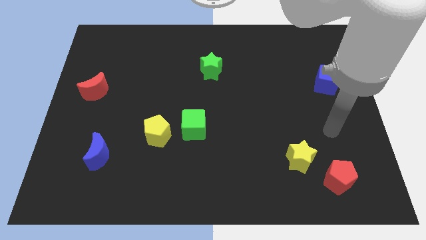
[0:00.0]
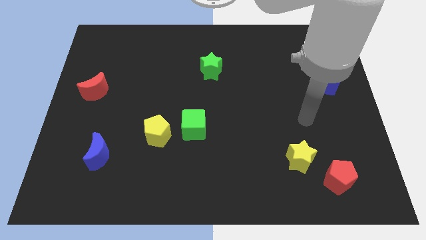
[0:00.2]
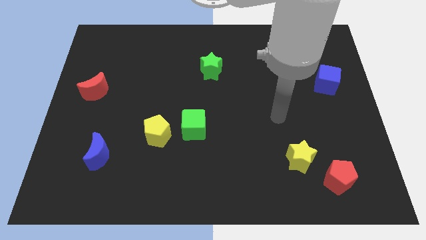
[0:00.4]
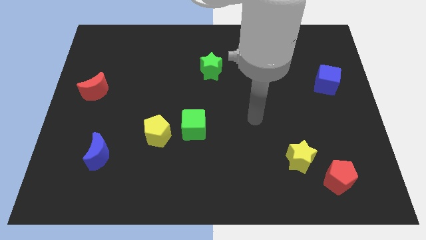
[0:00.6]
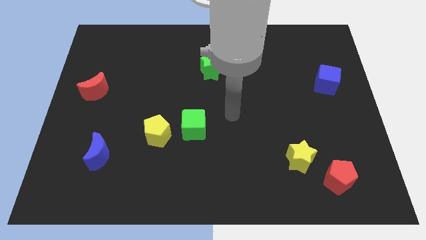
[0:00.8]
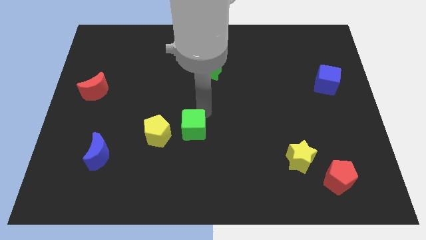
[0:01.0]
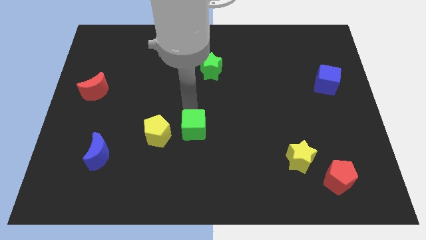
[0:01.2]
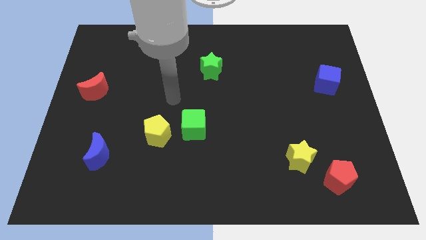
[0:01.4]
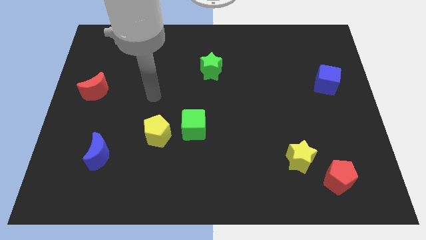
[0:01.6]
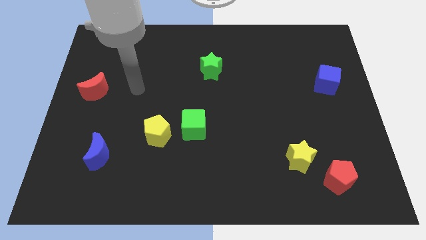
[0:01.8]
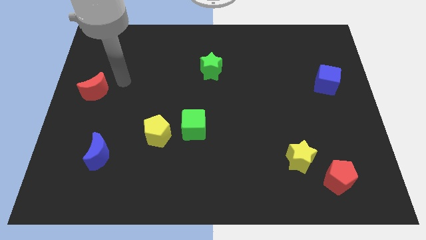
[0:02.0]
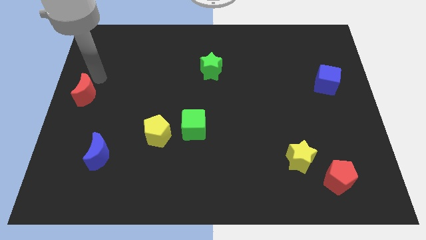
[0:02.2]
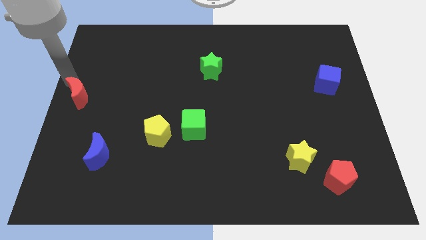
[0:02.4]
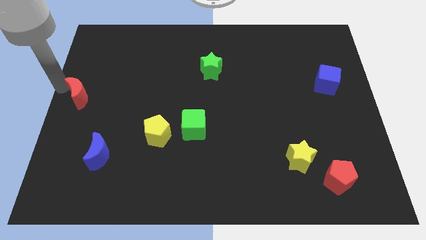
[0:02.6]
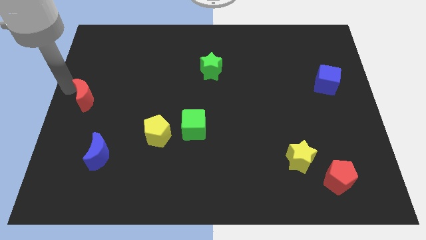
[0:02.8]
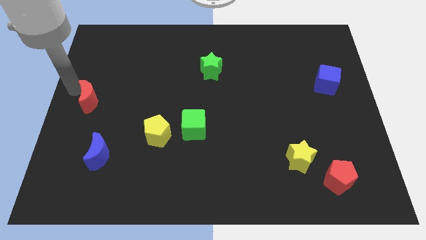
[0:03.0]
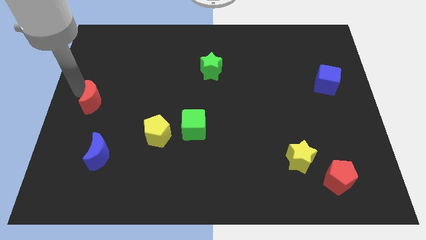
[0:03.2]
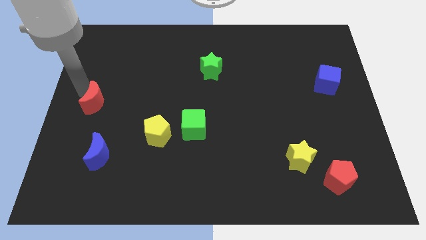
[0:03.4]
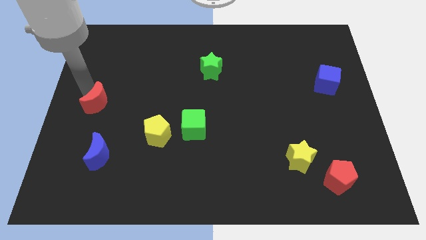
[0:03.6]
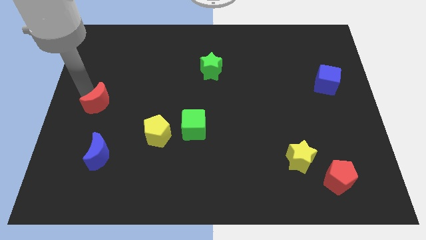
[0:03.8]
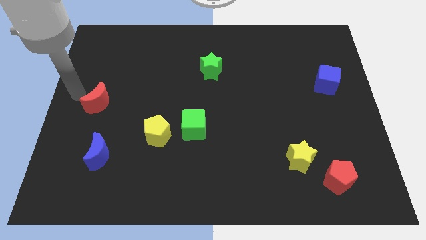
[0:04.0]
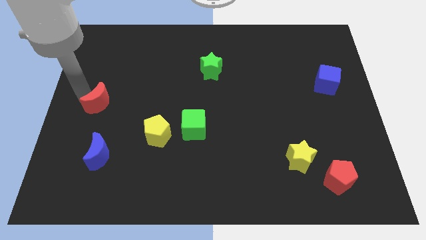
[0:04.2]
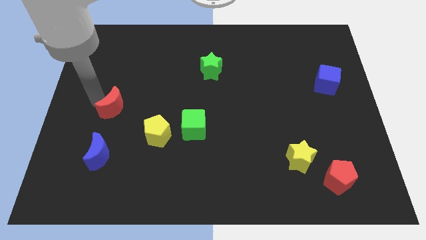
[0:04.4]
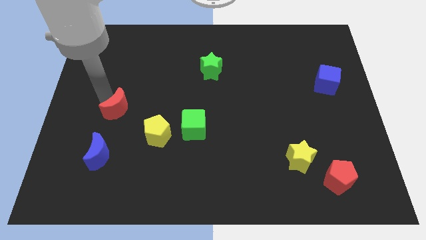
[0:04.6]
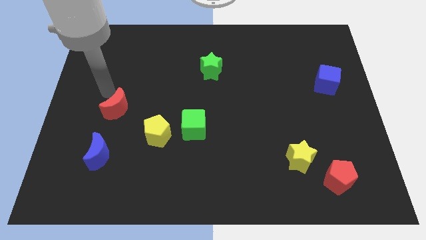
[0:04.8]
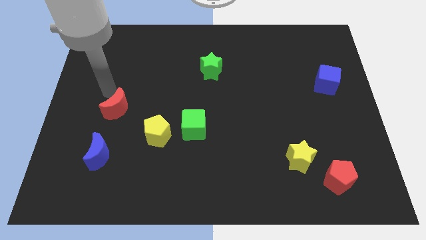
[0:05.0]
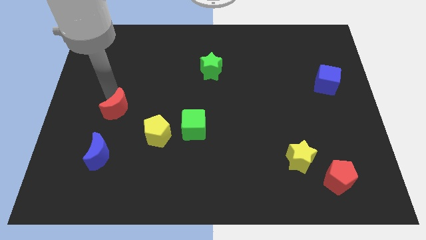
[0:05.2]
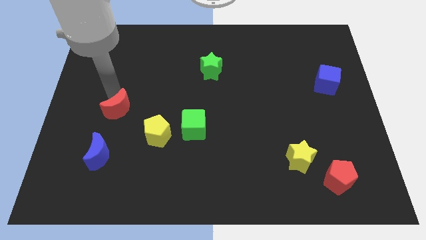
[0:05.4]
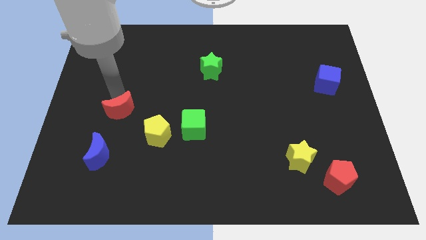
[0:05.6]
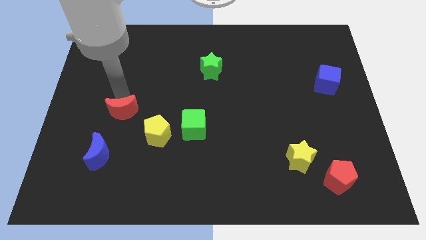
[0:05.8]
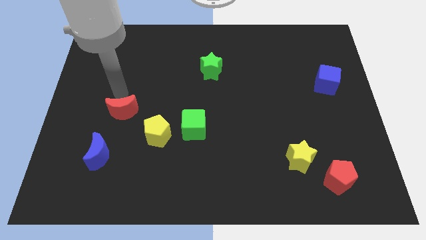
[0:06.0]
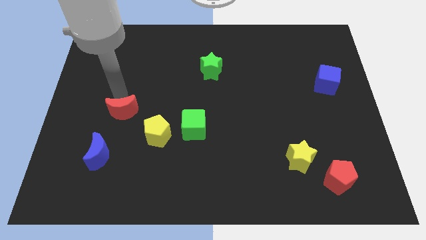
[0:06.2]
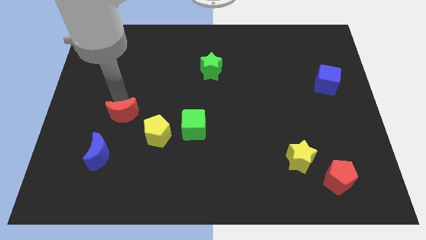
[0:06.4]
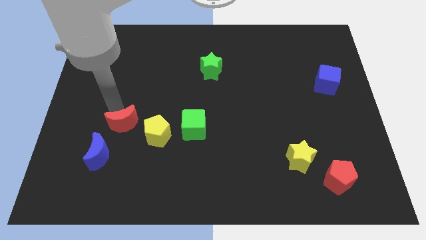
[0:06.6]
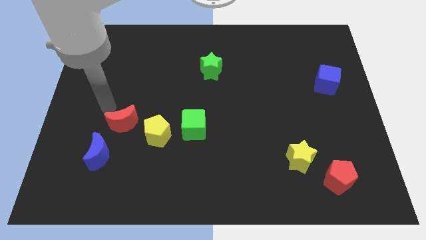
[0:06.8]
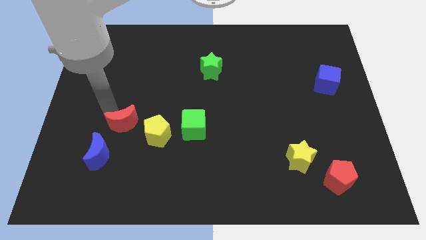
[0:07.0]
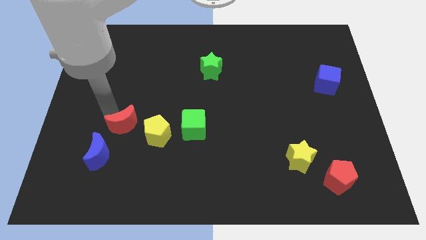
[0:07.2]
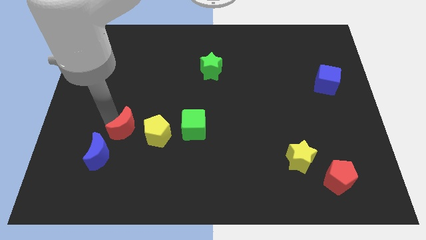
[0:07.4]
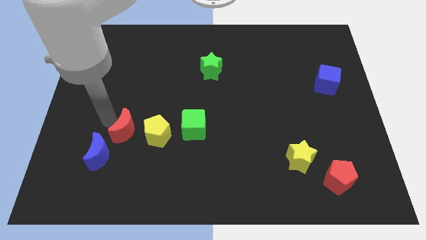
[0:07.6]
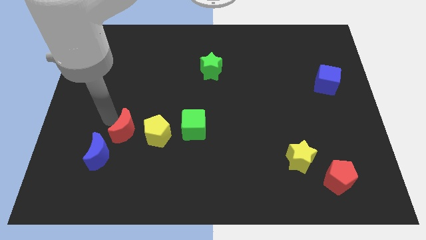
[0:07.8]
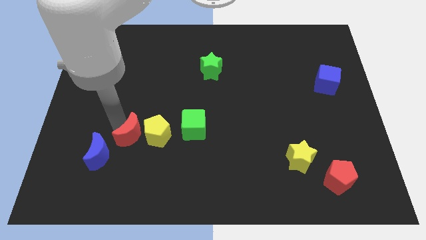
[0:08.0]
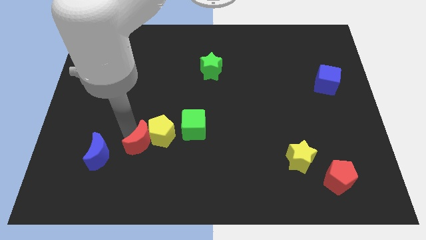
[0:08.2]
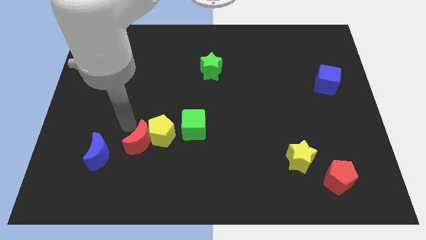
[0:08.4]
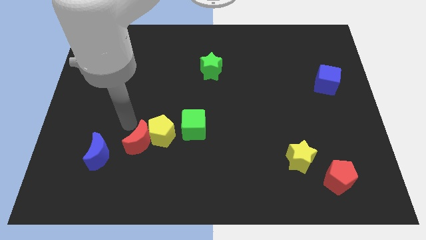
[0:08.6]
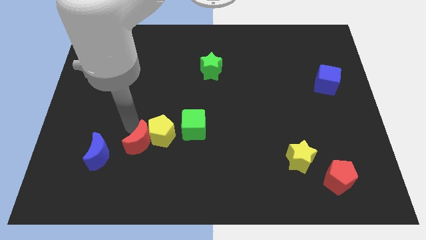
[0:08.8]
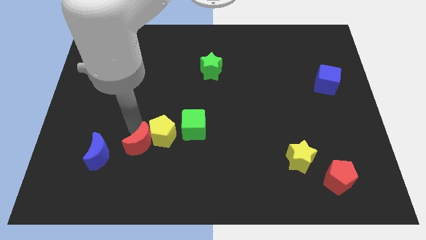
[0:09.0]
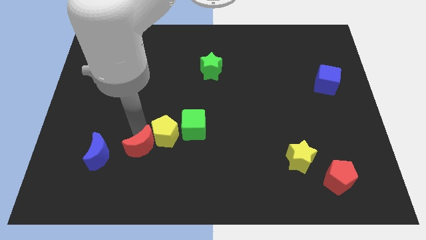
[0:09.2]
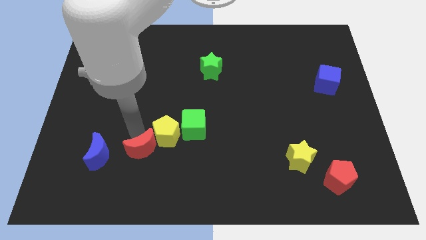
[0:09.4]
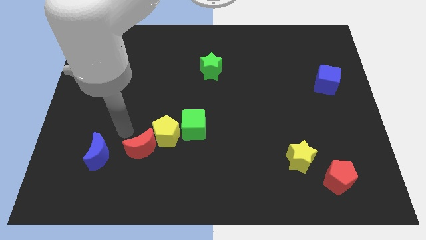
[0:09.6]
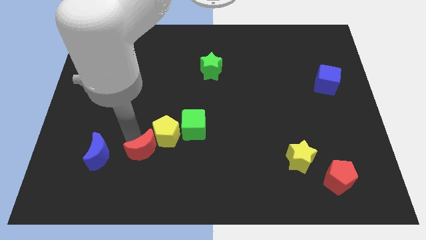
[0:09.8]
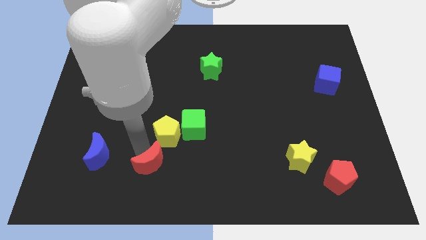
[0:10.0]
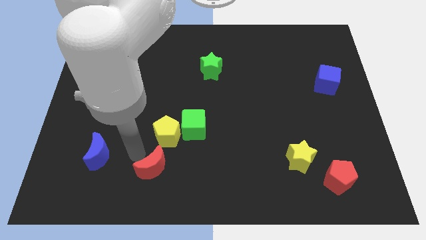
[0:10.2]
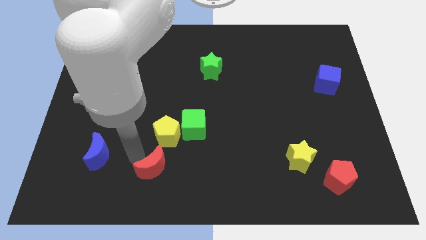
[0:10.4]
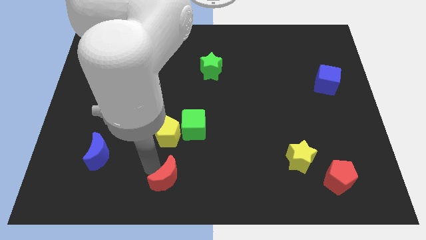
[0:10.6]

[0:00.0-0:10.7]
slide the red moon to the bottom side

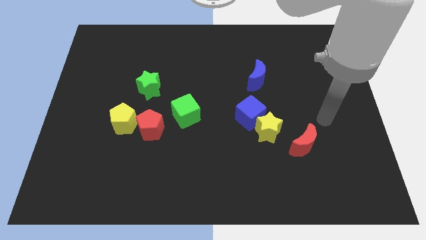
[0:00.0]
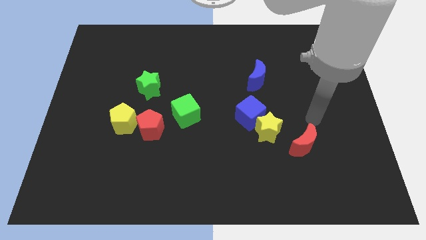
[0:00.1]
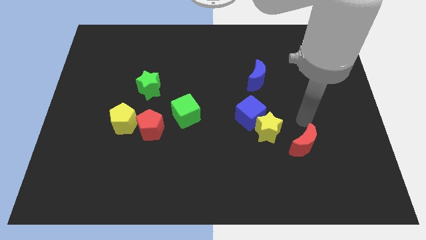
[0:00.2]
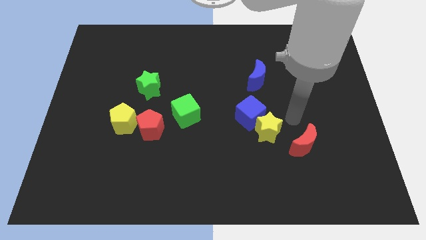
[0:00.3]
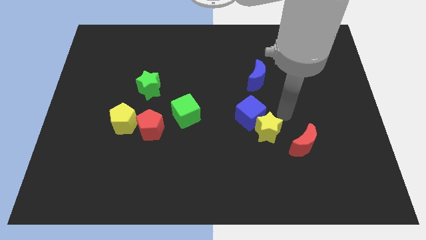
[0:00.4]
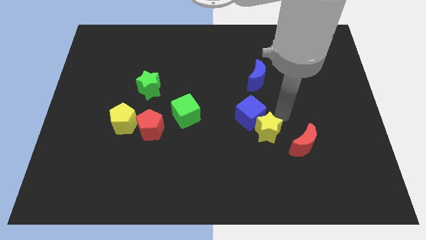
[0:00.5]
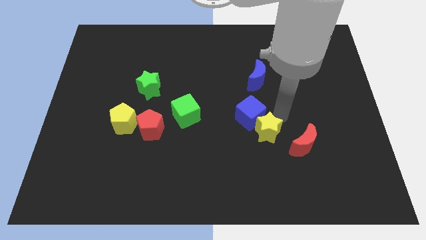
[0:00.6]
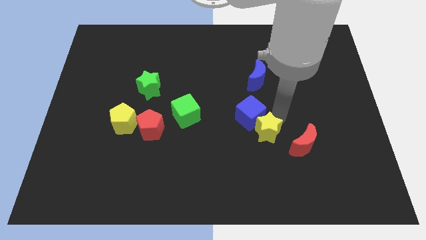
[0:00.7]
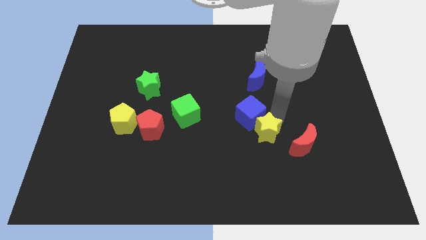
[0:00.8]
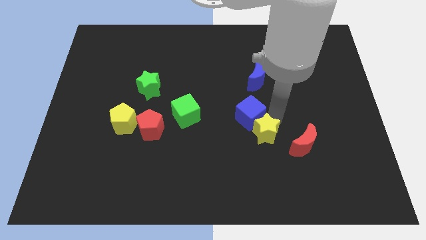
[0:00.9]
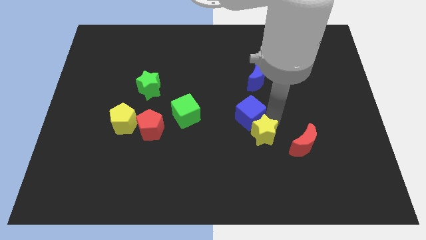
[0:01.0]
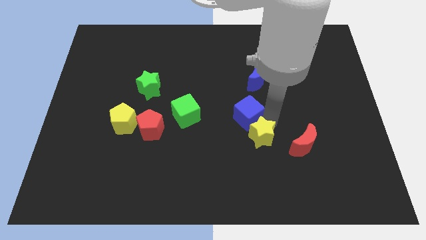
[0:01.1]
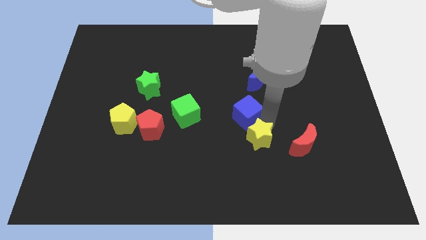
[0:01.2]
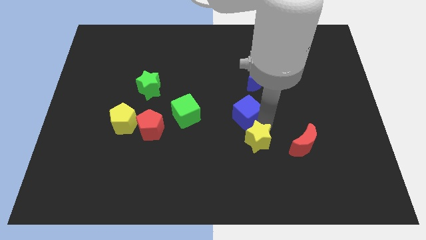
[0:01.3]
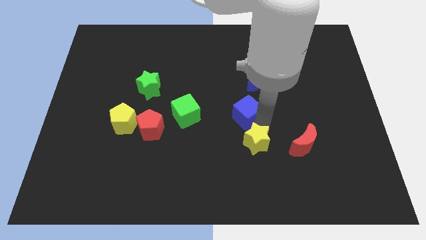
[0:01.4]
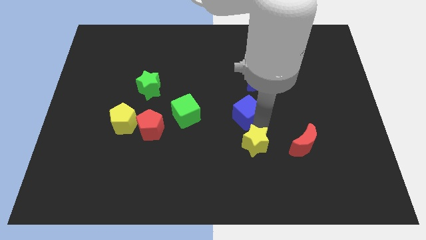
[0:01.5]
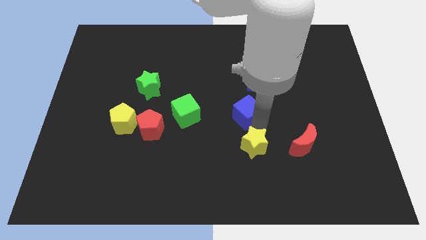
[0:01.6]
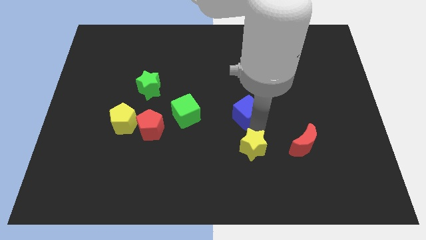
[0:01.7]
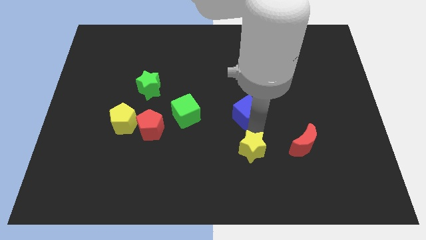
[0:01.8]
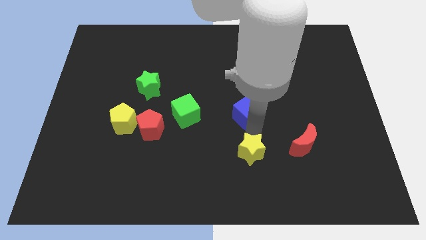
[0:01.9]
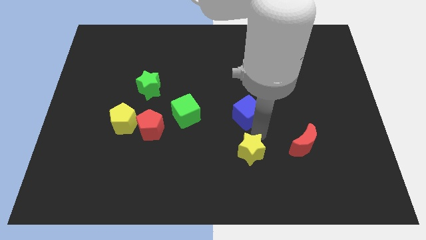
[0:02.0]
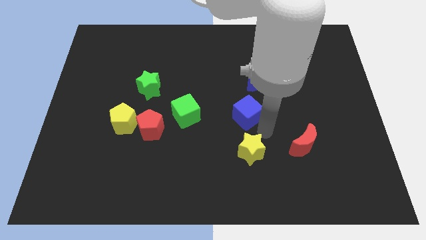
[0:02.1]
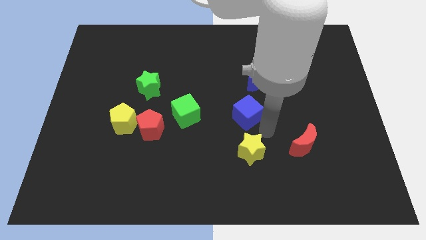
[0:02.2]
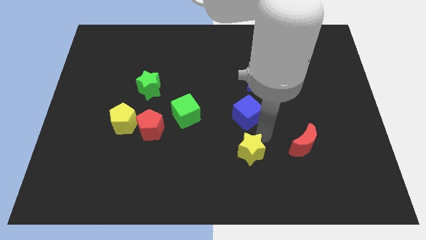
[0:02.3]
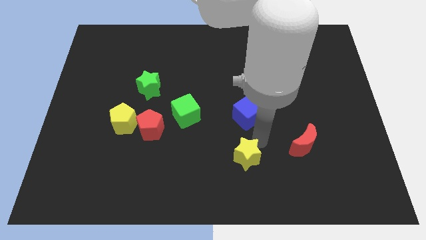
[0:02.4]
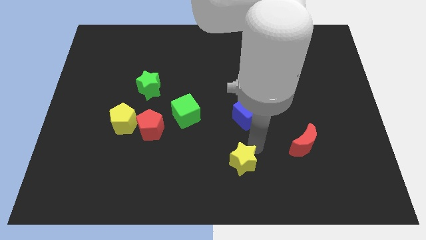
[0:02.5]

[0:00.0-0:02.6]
put the yellow star to the bottom
